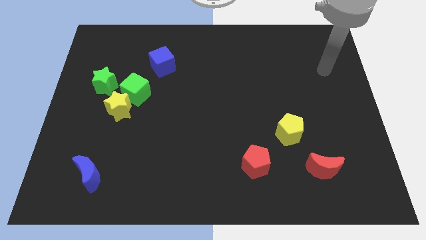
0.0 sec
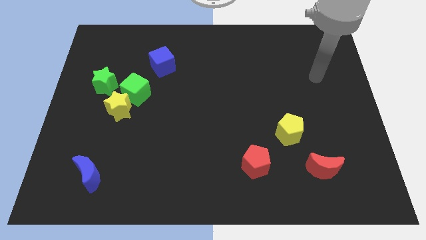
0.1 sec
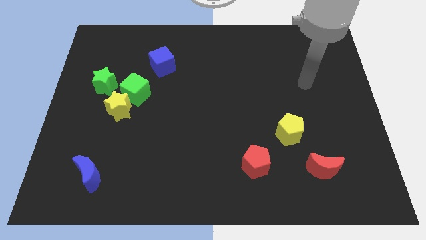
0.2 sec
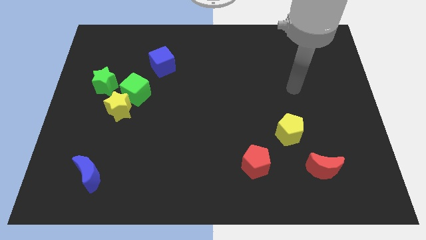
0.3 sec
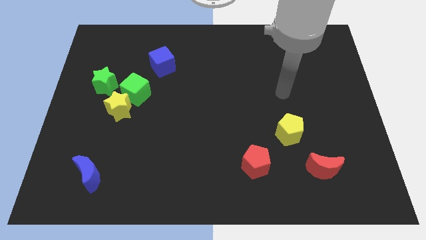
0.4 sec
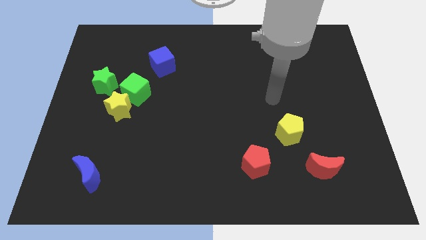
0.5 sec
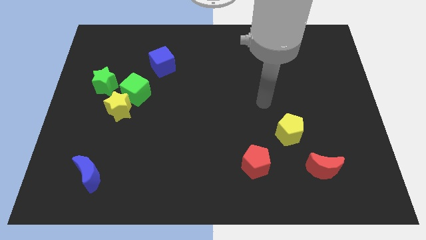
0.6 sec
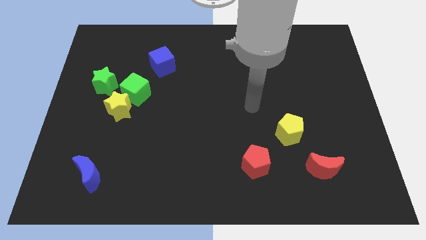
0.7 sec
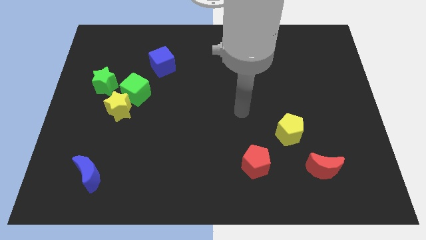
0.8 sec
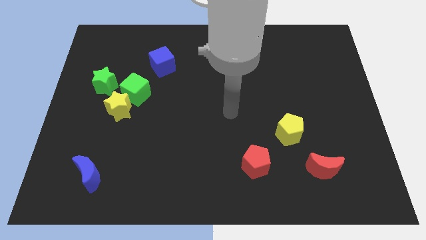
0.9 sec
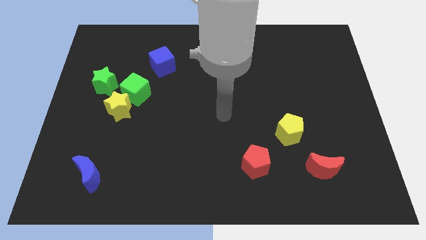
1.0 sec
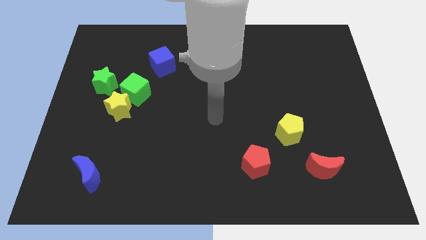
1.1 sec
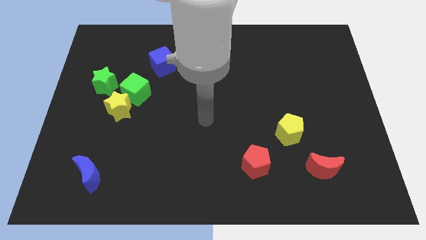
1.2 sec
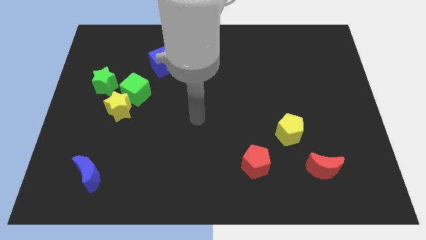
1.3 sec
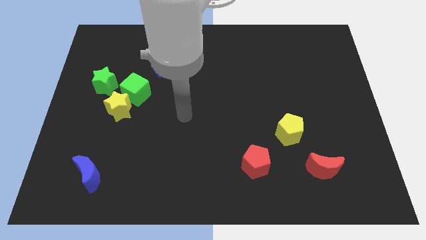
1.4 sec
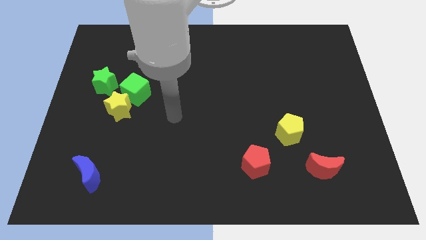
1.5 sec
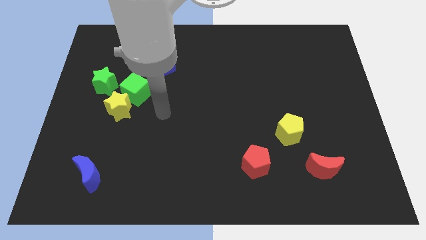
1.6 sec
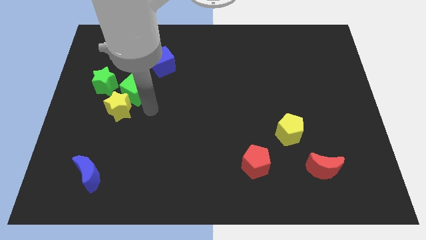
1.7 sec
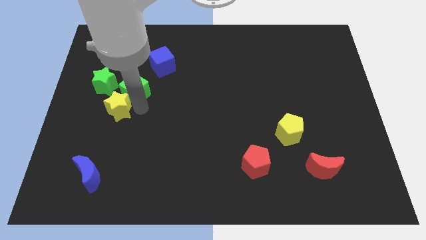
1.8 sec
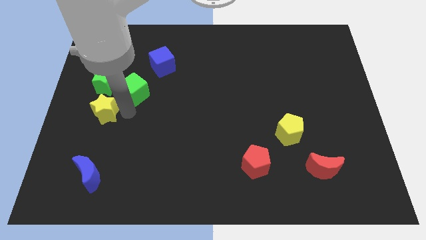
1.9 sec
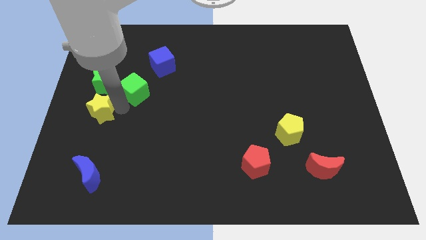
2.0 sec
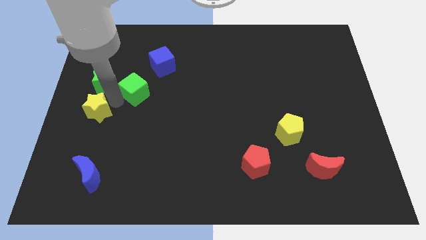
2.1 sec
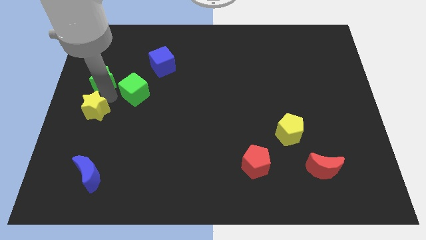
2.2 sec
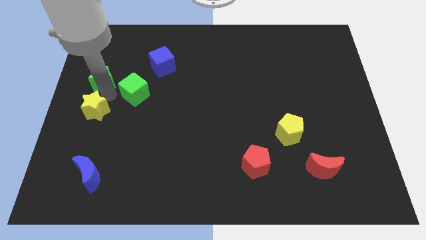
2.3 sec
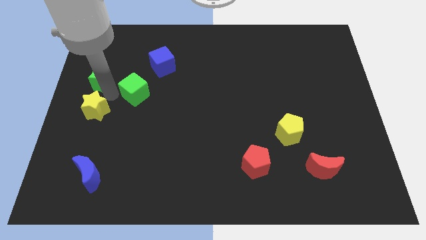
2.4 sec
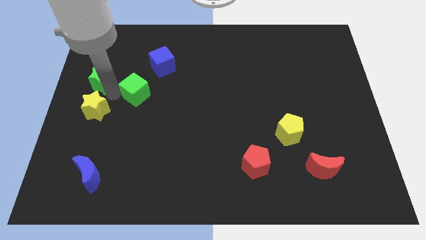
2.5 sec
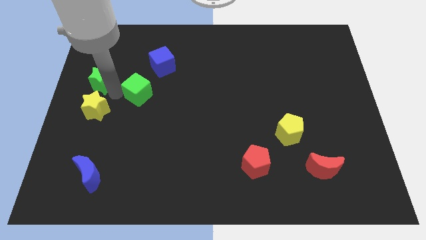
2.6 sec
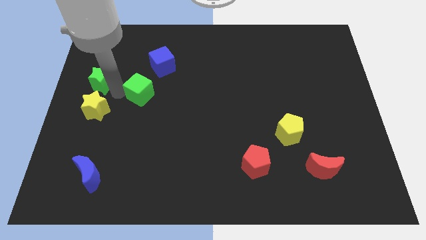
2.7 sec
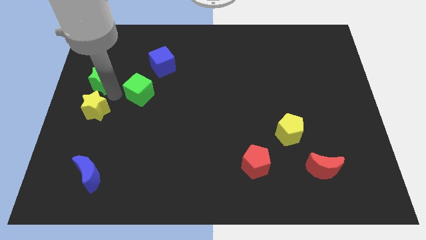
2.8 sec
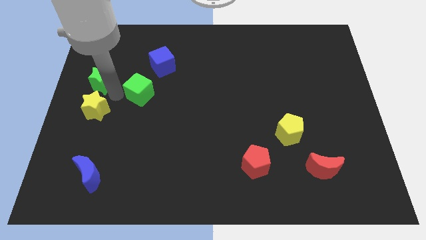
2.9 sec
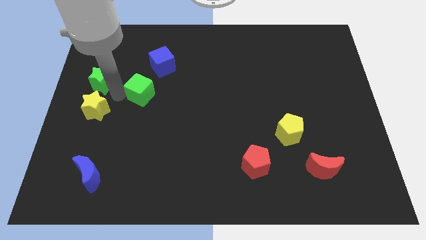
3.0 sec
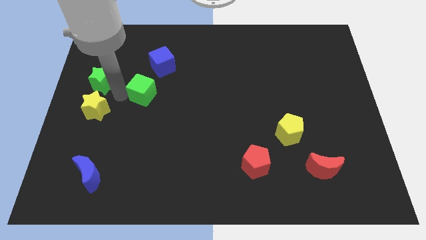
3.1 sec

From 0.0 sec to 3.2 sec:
move the green cube away from the yellow star and green star

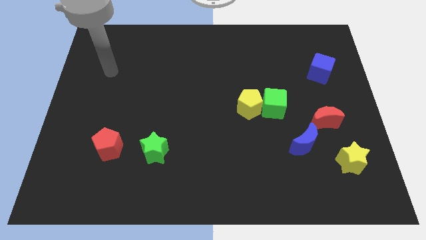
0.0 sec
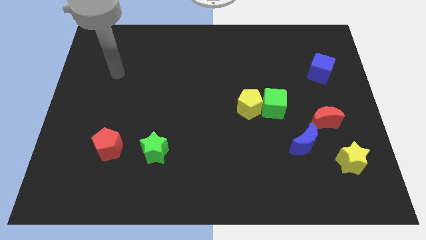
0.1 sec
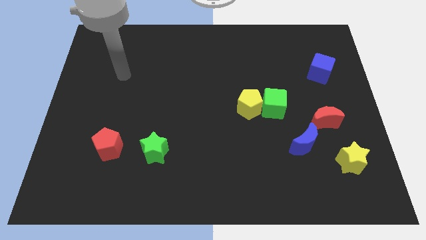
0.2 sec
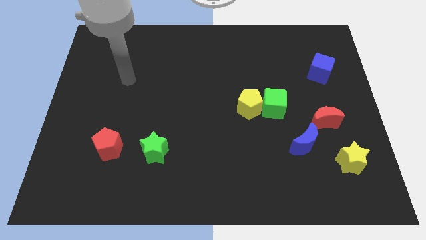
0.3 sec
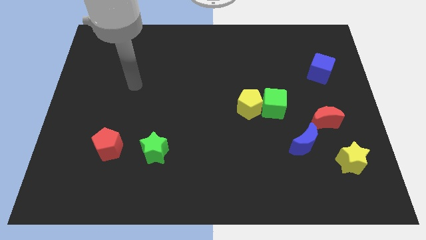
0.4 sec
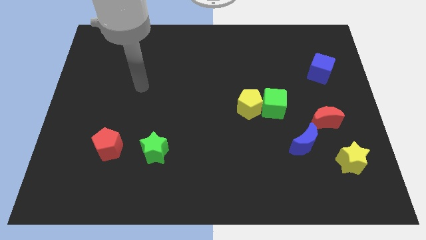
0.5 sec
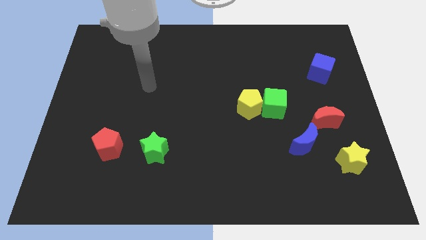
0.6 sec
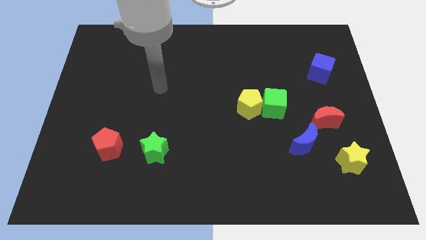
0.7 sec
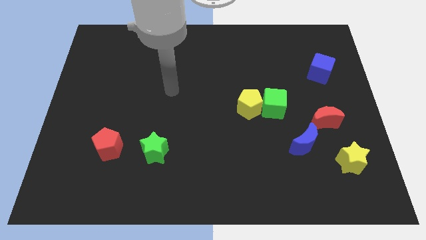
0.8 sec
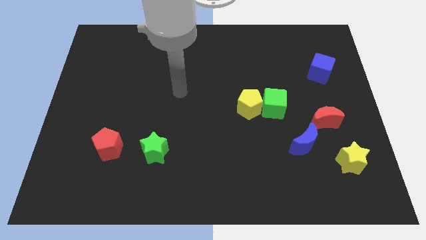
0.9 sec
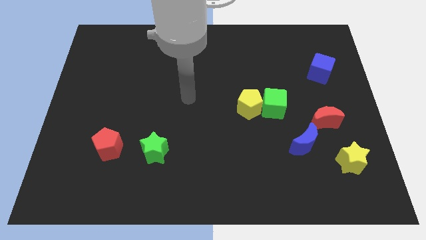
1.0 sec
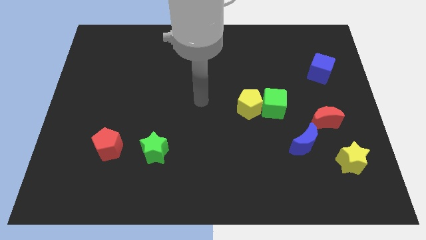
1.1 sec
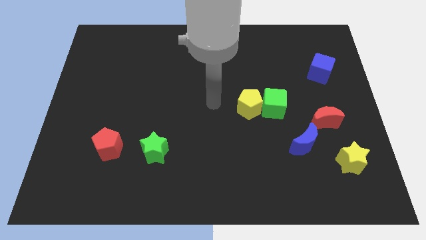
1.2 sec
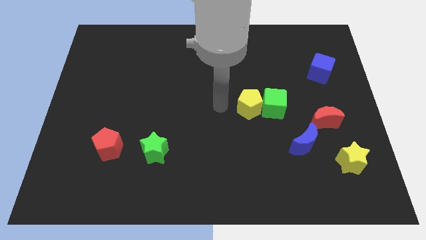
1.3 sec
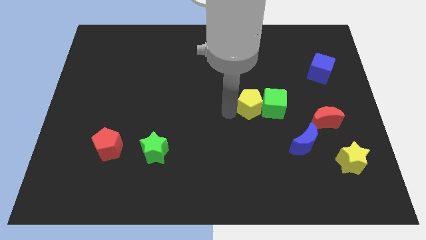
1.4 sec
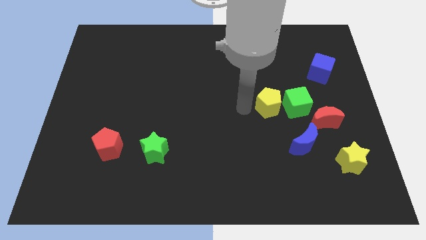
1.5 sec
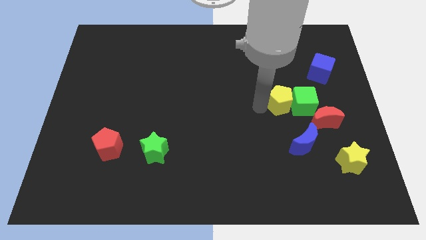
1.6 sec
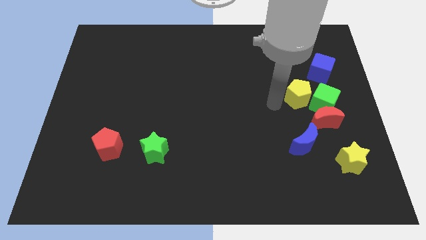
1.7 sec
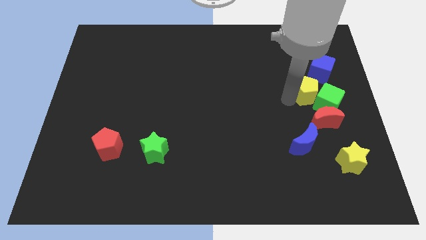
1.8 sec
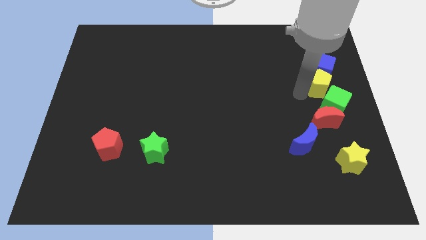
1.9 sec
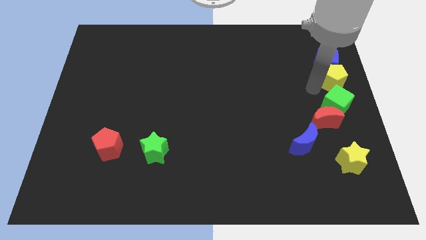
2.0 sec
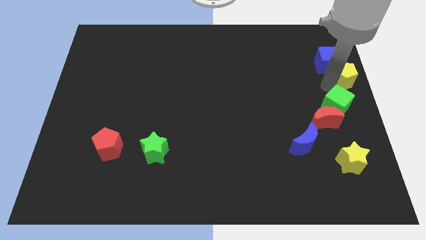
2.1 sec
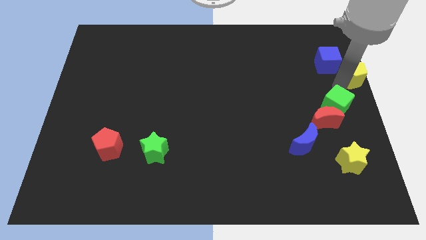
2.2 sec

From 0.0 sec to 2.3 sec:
move the green cube away from the yellow pentagon

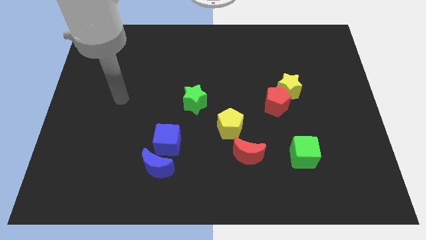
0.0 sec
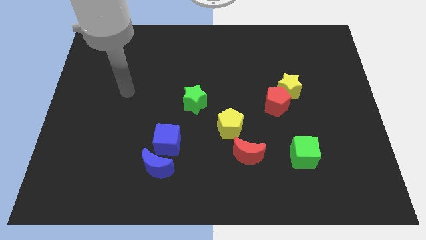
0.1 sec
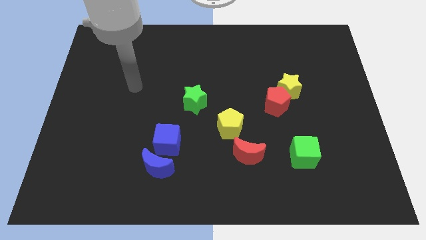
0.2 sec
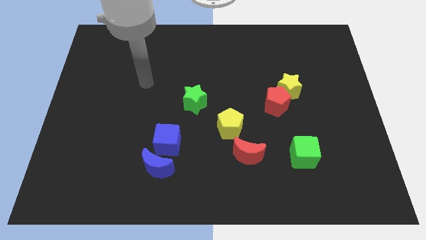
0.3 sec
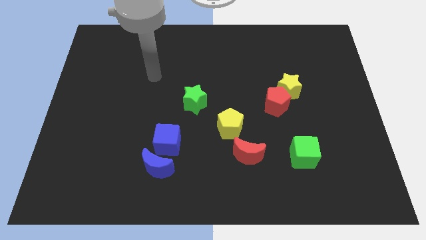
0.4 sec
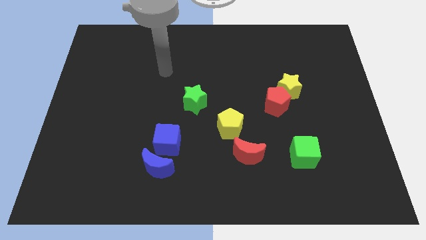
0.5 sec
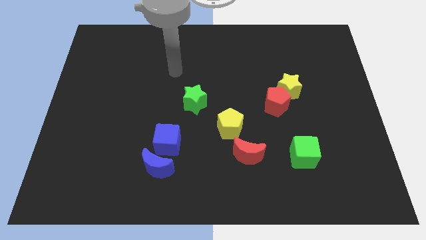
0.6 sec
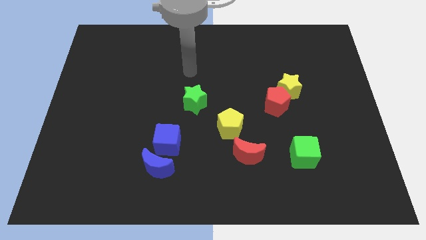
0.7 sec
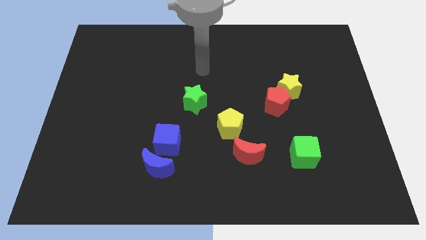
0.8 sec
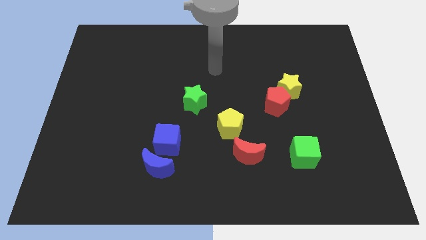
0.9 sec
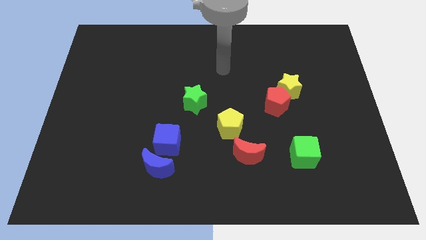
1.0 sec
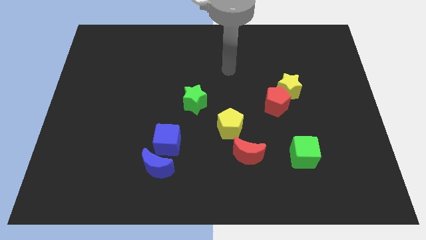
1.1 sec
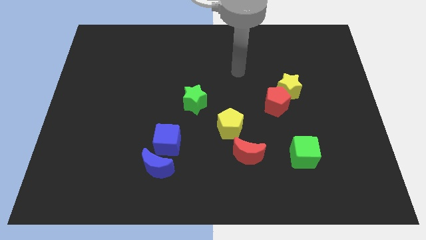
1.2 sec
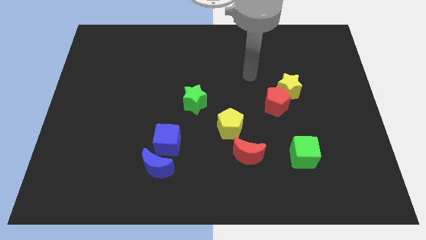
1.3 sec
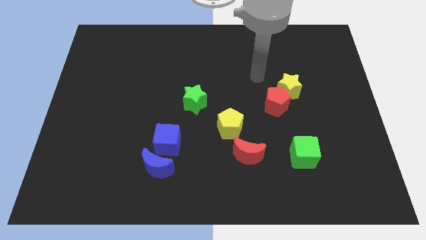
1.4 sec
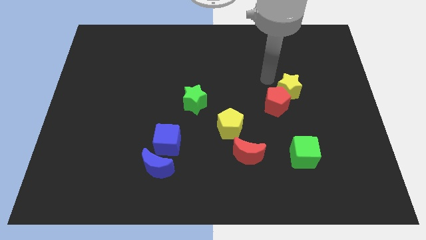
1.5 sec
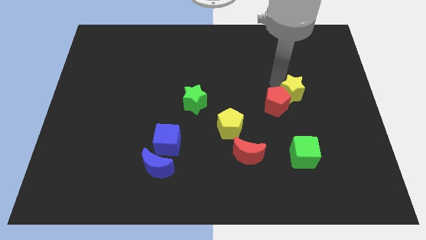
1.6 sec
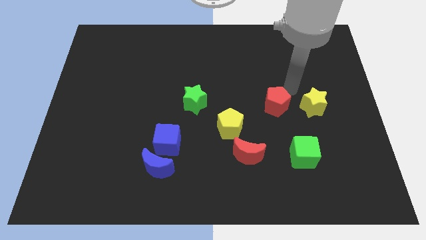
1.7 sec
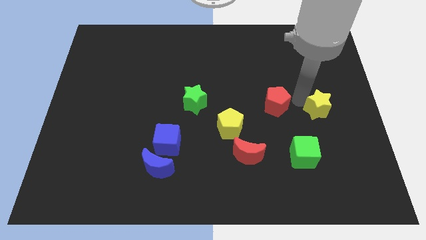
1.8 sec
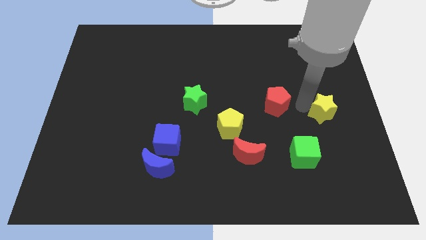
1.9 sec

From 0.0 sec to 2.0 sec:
move the red pentagon away from the yellow star

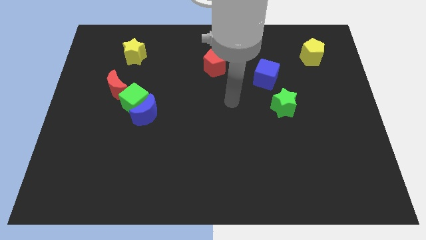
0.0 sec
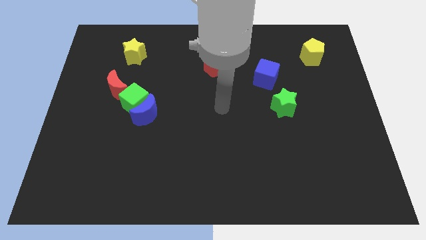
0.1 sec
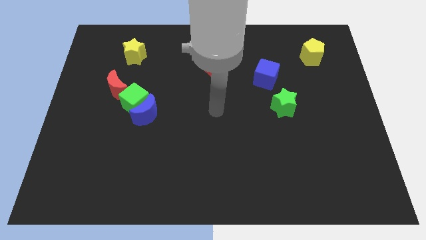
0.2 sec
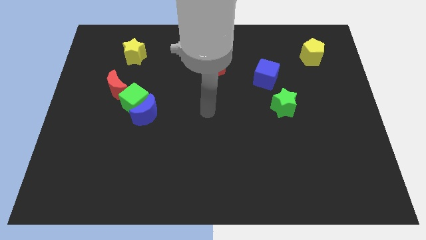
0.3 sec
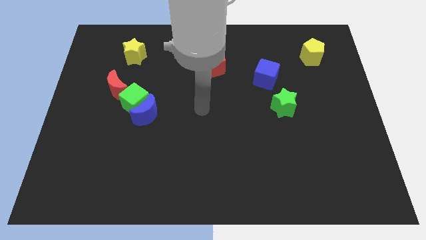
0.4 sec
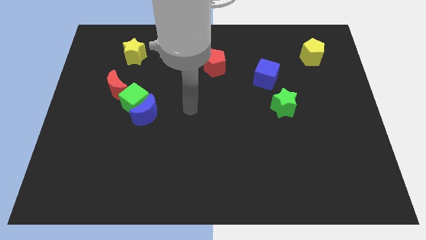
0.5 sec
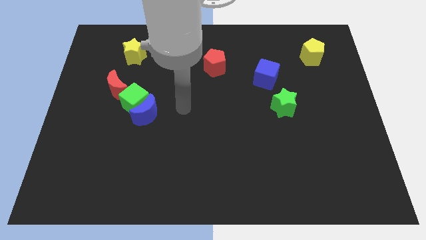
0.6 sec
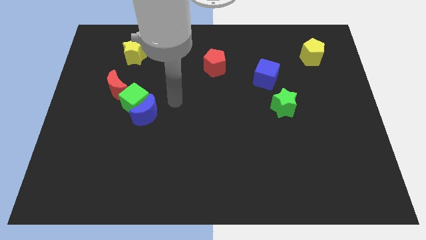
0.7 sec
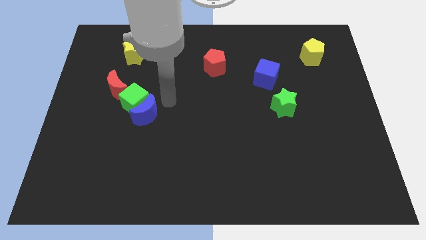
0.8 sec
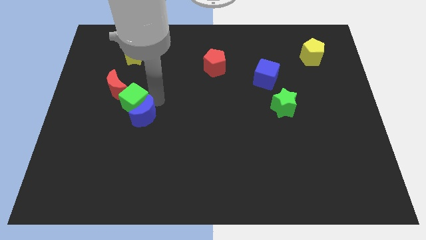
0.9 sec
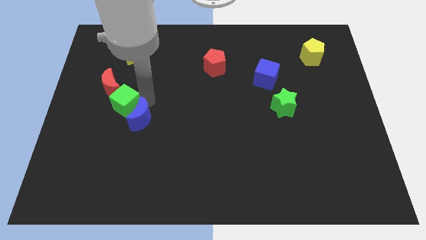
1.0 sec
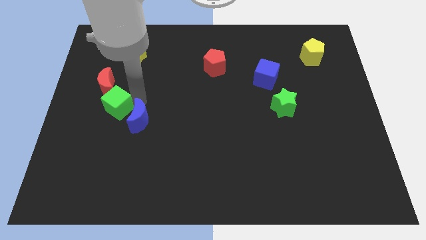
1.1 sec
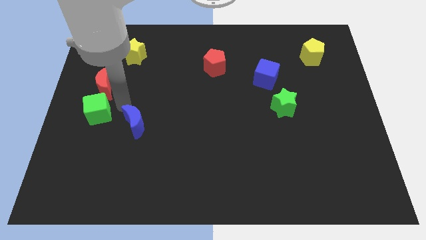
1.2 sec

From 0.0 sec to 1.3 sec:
move the blue moon away from the green cube

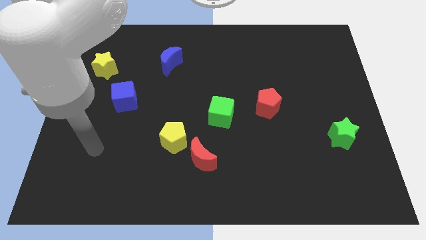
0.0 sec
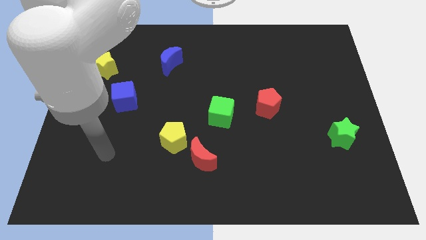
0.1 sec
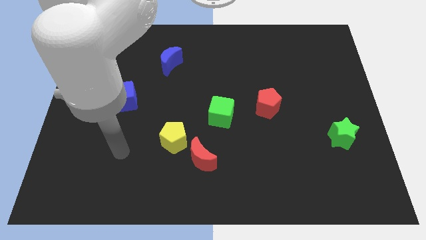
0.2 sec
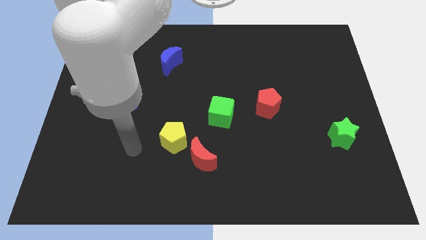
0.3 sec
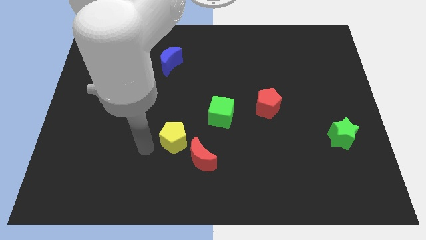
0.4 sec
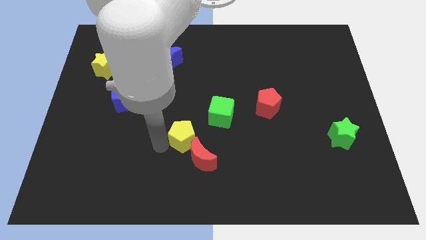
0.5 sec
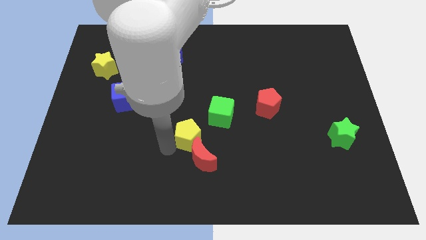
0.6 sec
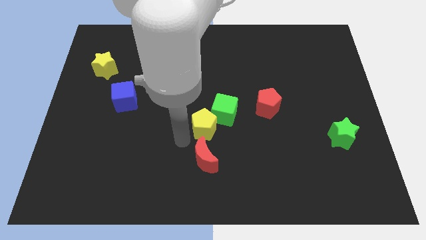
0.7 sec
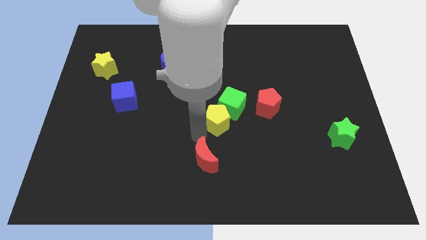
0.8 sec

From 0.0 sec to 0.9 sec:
separate the red moon from the yellow pentagon
